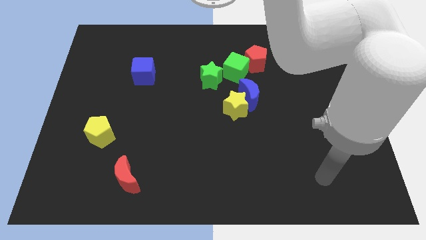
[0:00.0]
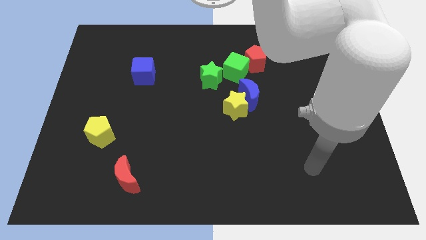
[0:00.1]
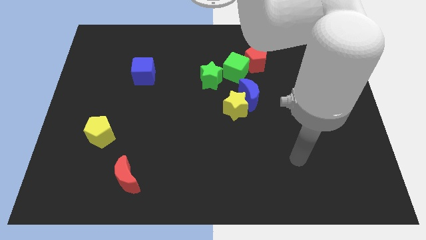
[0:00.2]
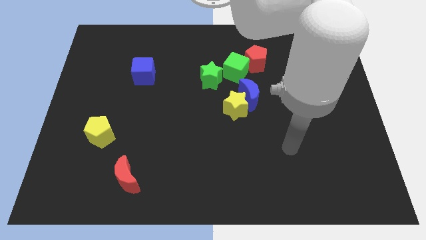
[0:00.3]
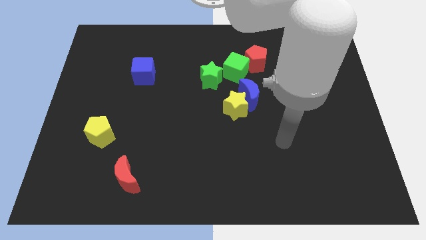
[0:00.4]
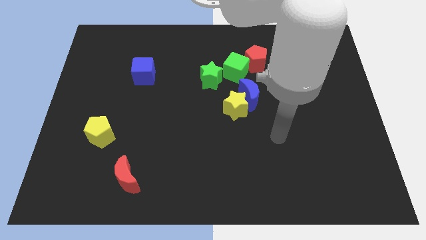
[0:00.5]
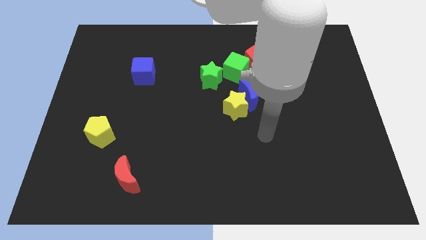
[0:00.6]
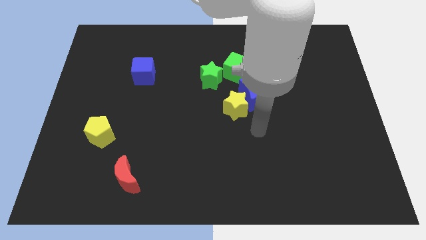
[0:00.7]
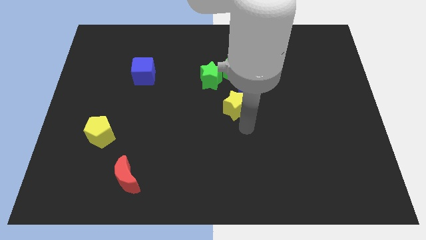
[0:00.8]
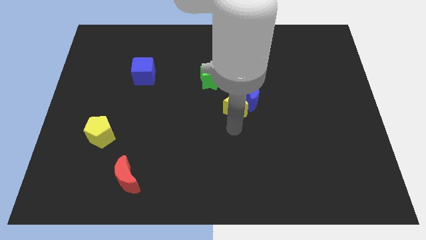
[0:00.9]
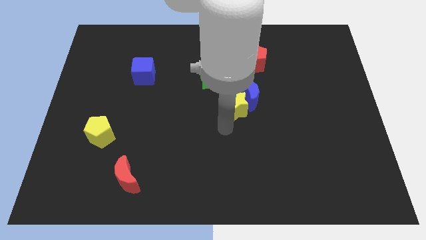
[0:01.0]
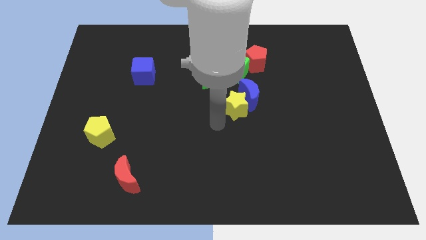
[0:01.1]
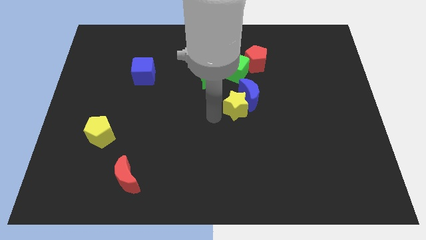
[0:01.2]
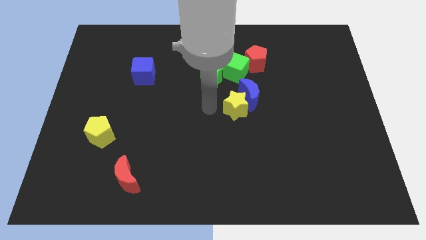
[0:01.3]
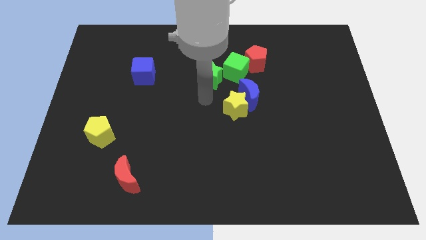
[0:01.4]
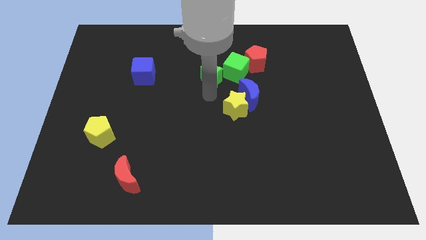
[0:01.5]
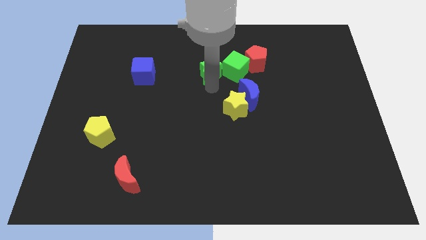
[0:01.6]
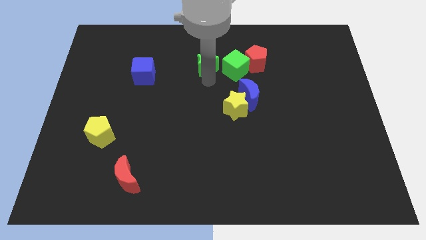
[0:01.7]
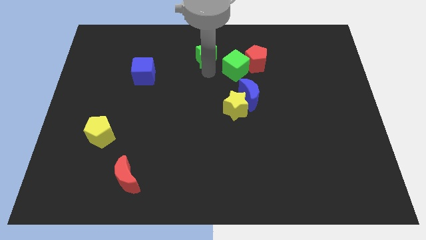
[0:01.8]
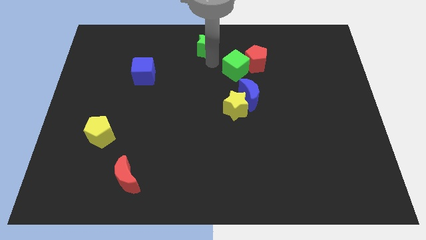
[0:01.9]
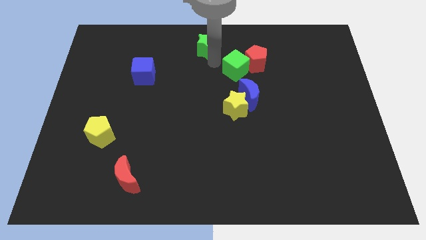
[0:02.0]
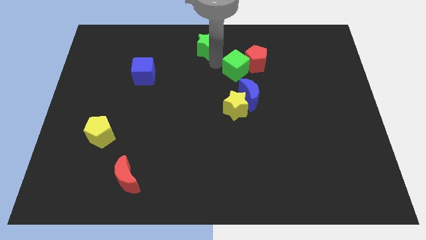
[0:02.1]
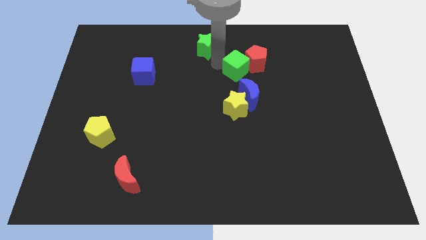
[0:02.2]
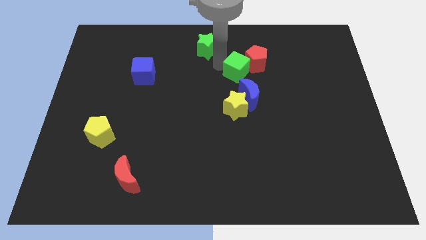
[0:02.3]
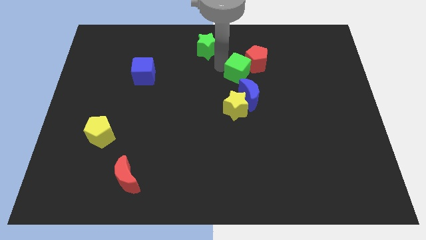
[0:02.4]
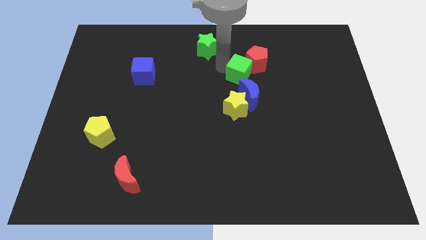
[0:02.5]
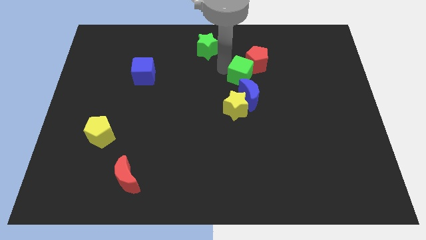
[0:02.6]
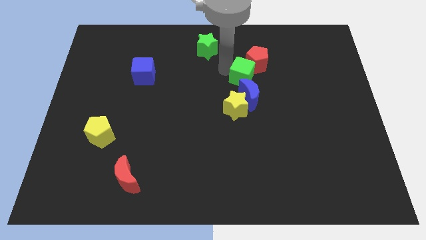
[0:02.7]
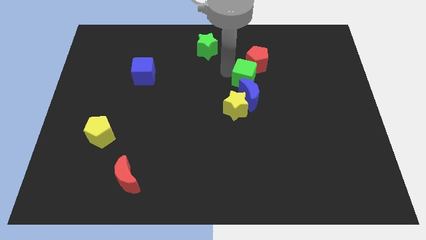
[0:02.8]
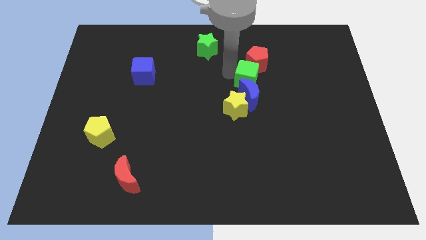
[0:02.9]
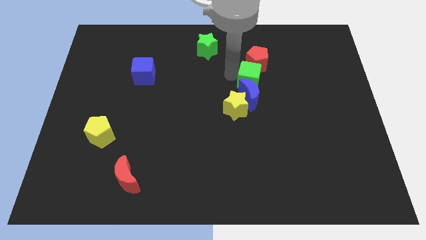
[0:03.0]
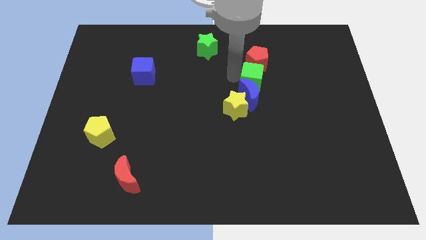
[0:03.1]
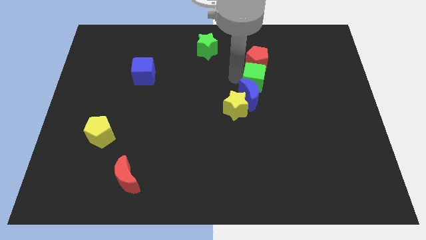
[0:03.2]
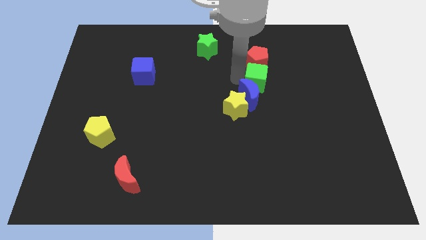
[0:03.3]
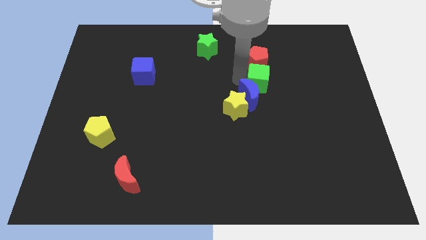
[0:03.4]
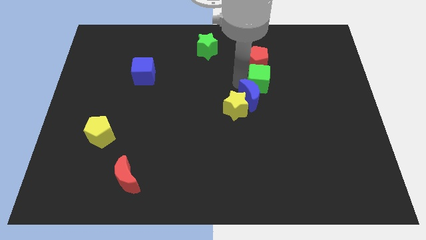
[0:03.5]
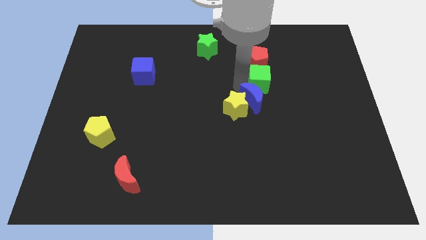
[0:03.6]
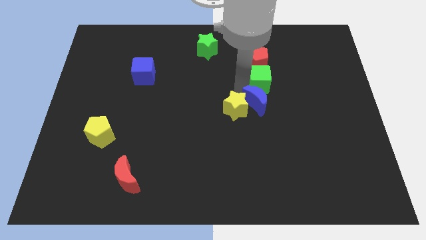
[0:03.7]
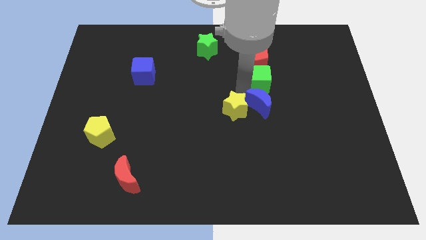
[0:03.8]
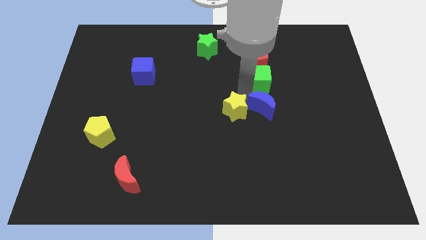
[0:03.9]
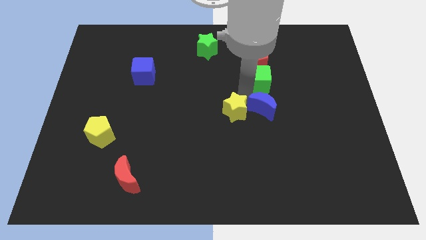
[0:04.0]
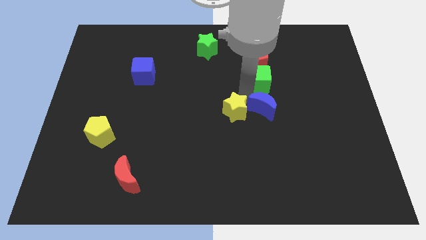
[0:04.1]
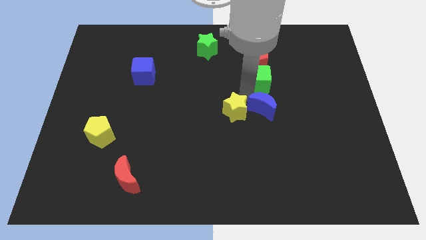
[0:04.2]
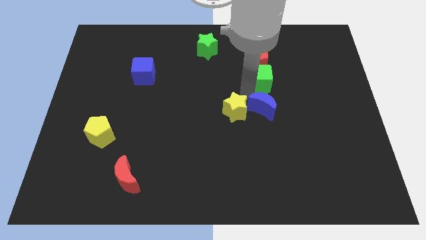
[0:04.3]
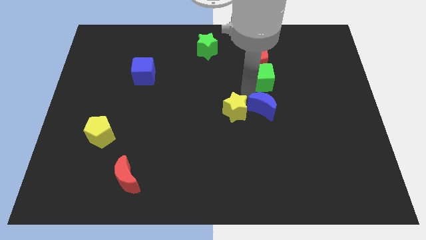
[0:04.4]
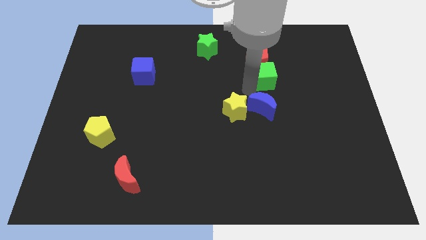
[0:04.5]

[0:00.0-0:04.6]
push the green cube to the right somewhat

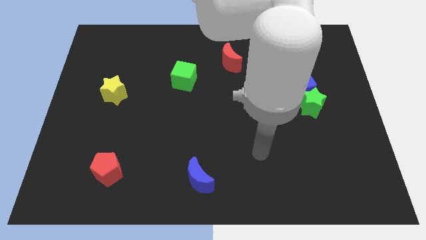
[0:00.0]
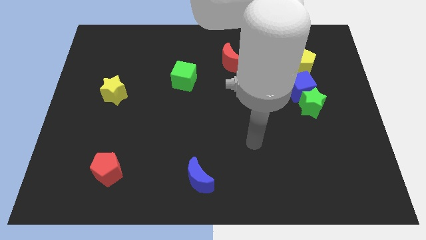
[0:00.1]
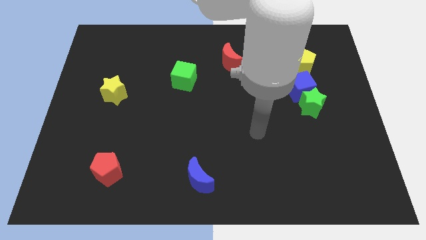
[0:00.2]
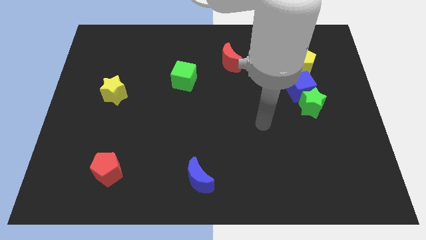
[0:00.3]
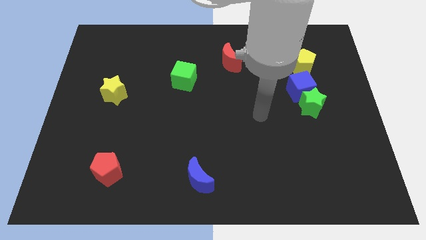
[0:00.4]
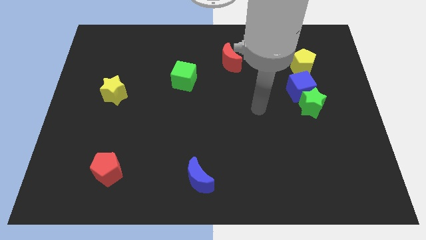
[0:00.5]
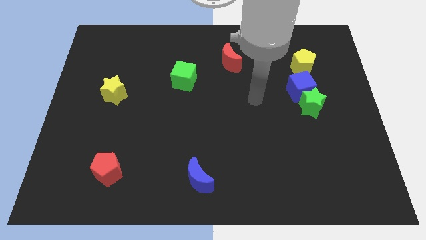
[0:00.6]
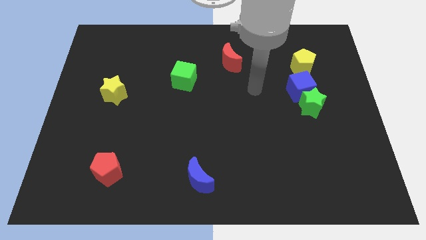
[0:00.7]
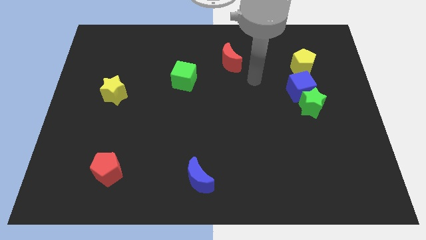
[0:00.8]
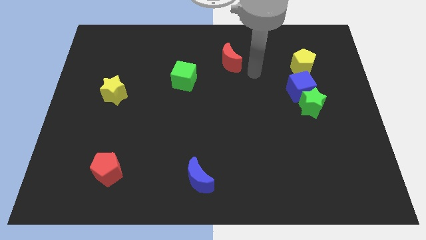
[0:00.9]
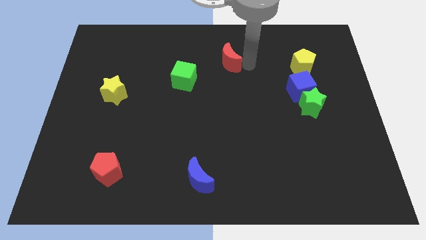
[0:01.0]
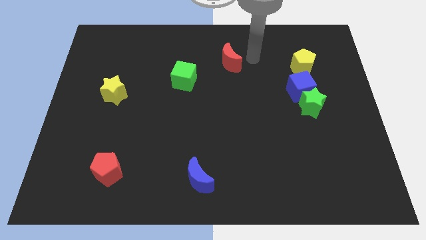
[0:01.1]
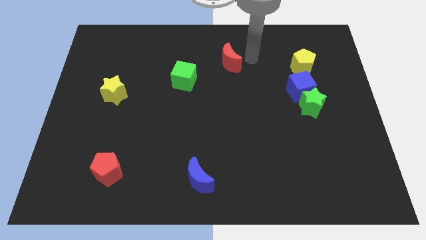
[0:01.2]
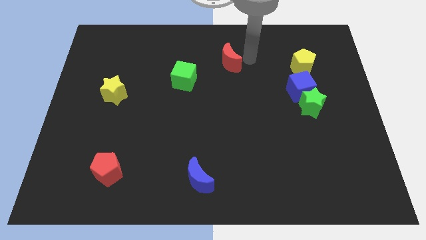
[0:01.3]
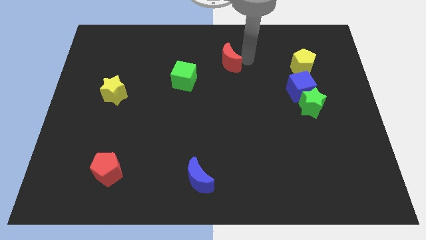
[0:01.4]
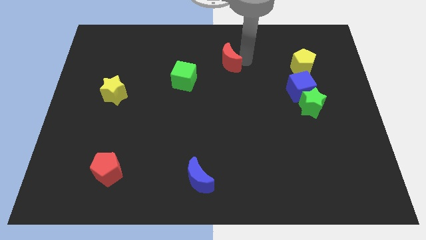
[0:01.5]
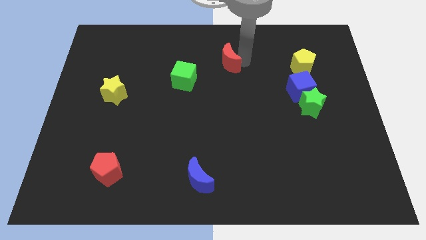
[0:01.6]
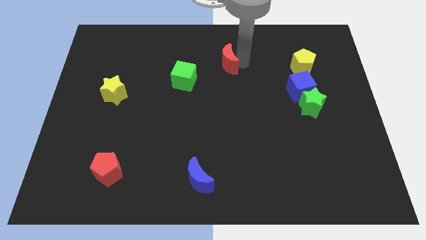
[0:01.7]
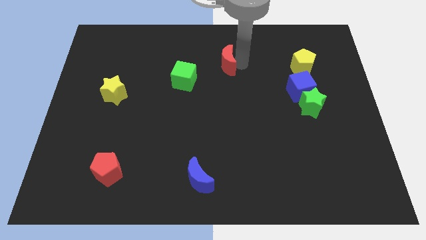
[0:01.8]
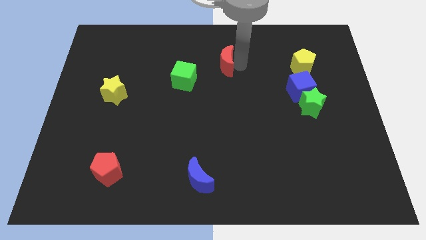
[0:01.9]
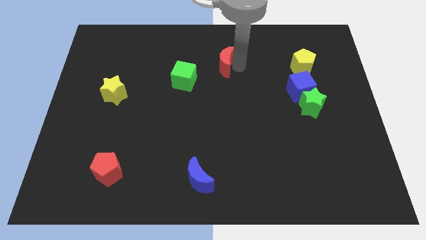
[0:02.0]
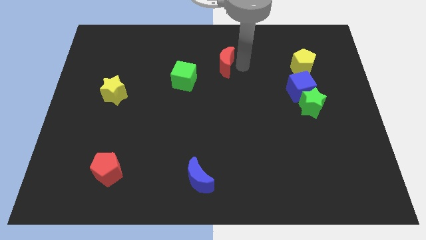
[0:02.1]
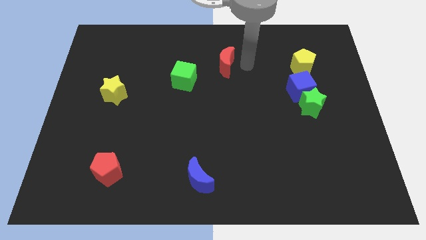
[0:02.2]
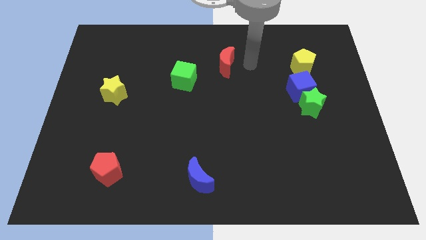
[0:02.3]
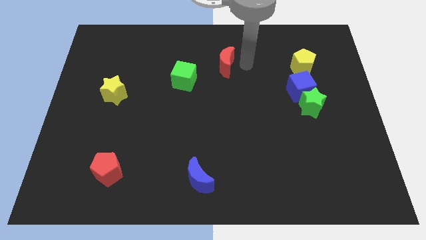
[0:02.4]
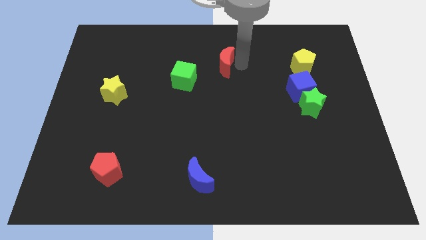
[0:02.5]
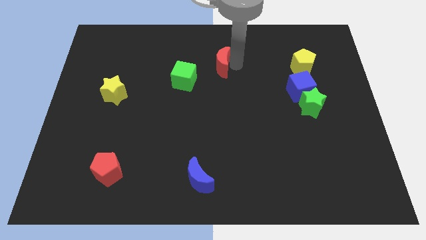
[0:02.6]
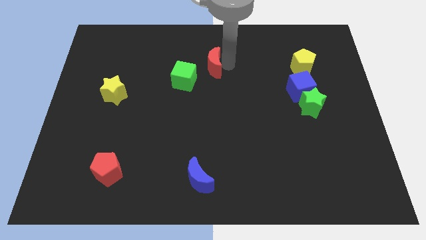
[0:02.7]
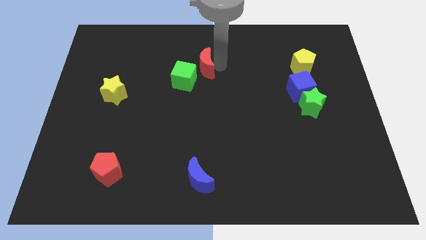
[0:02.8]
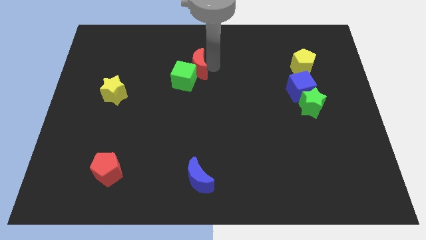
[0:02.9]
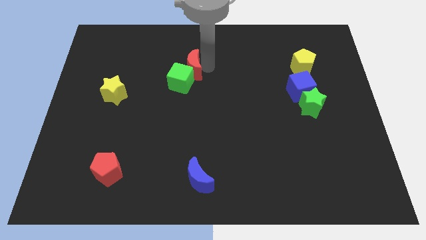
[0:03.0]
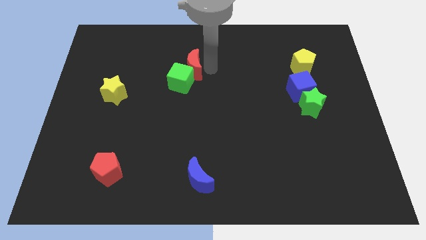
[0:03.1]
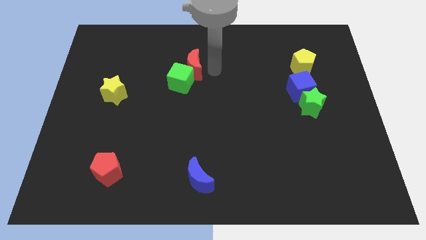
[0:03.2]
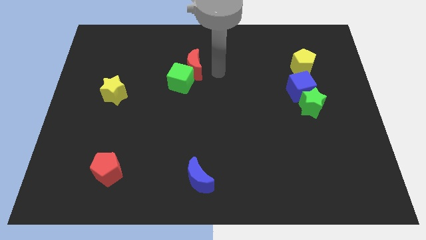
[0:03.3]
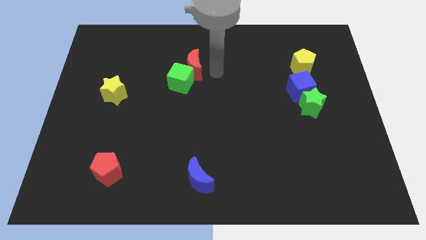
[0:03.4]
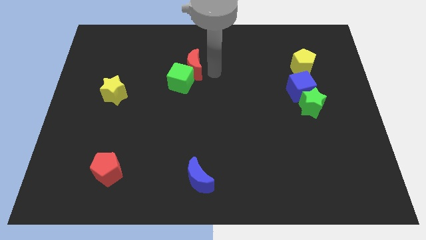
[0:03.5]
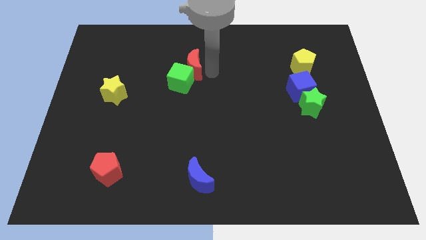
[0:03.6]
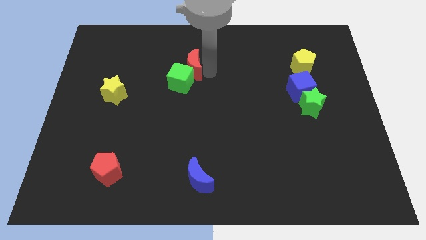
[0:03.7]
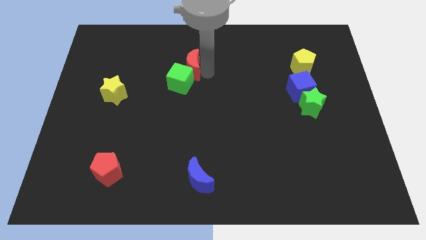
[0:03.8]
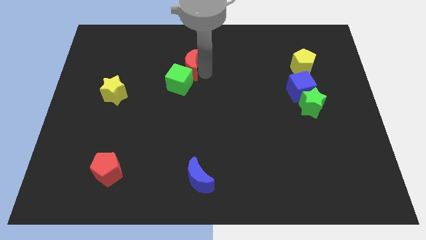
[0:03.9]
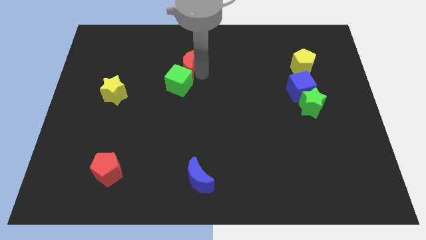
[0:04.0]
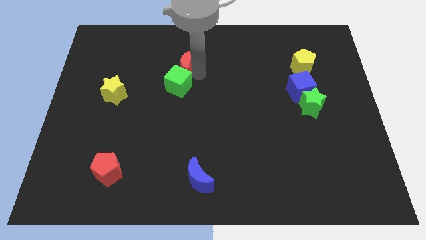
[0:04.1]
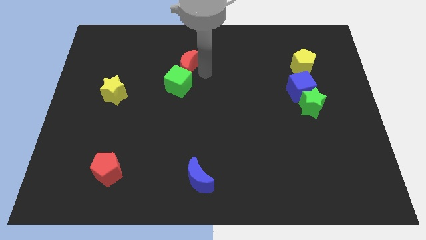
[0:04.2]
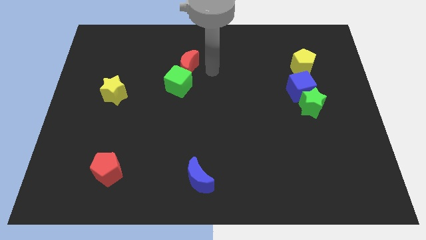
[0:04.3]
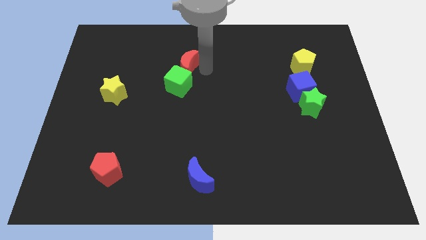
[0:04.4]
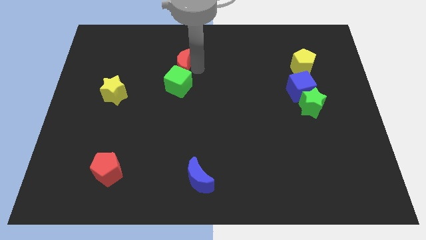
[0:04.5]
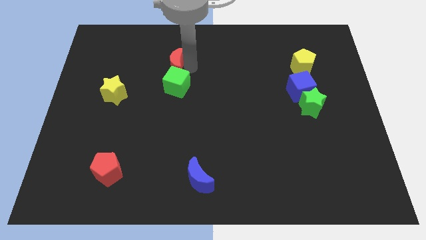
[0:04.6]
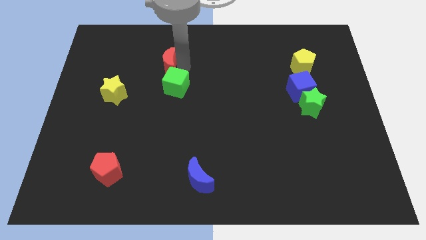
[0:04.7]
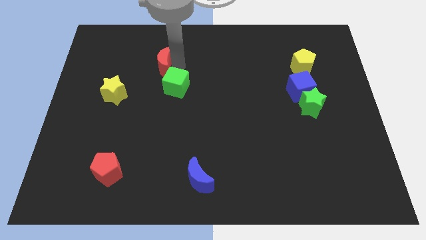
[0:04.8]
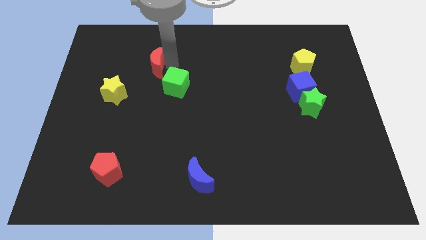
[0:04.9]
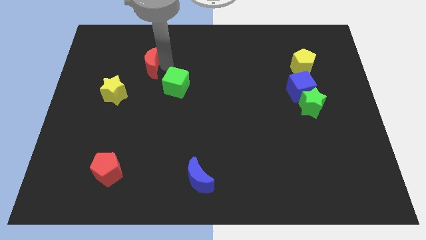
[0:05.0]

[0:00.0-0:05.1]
slide the red moon left
